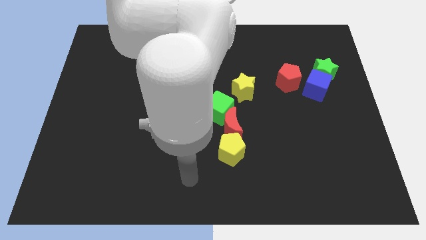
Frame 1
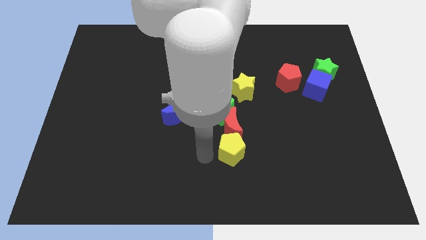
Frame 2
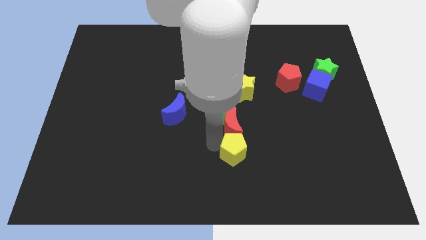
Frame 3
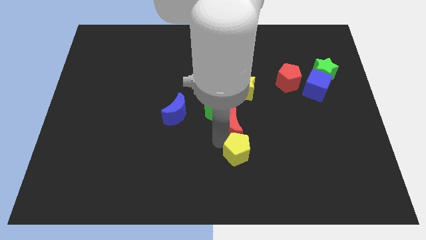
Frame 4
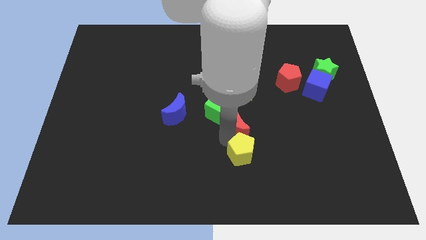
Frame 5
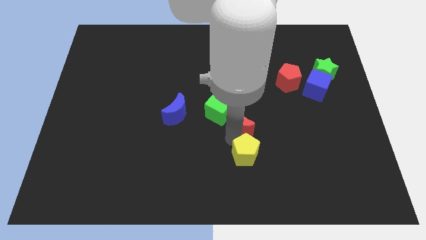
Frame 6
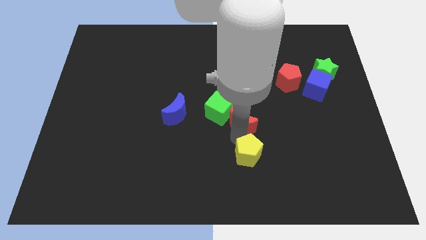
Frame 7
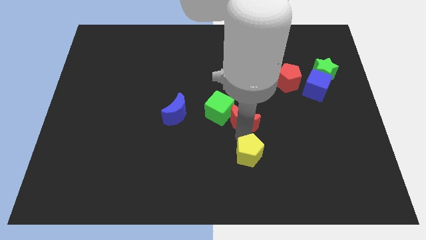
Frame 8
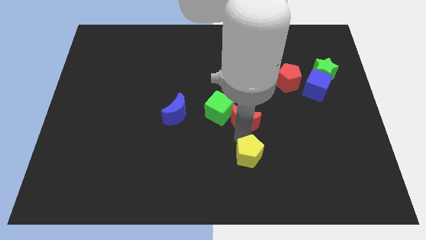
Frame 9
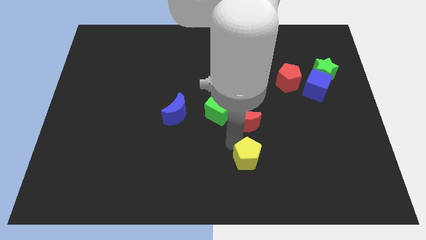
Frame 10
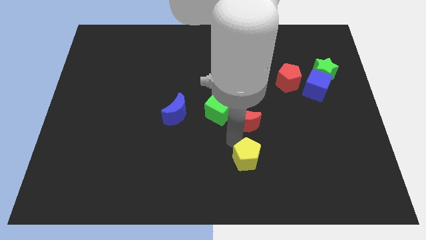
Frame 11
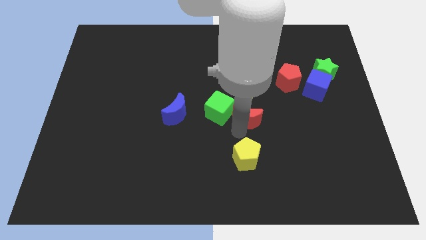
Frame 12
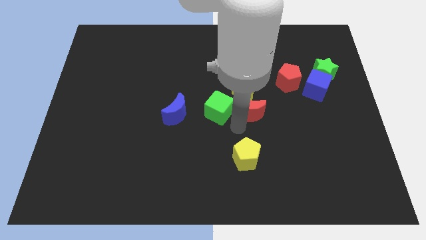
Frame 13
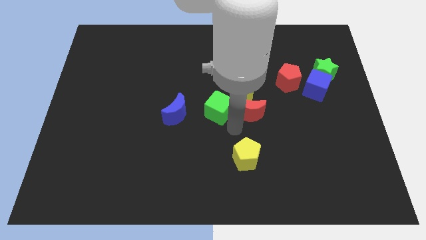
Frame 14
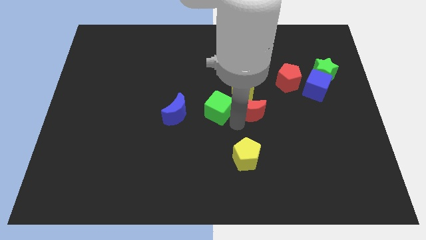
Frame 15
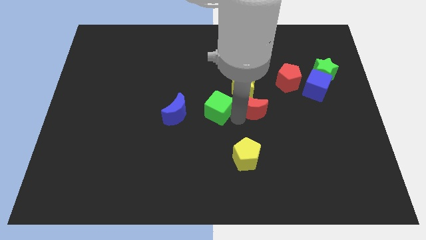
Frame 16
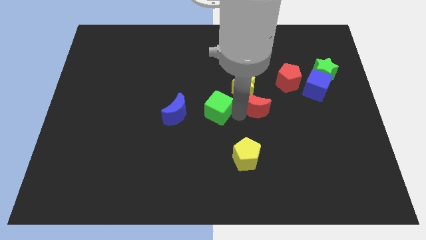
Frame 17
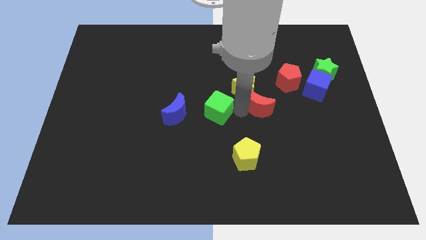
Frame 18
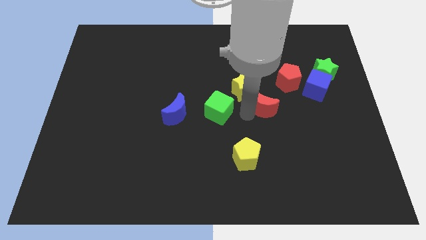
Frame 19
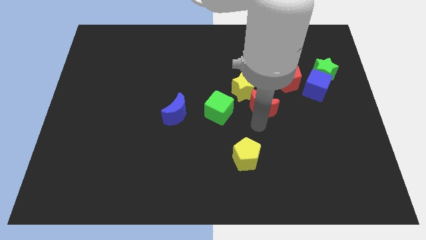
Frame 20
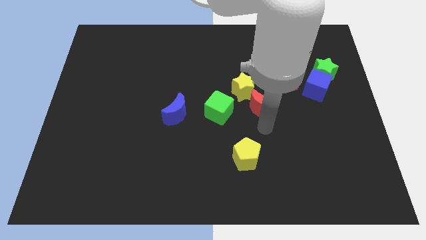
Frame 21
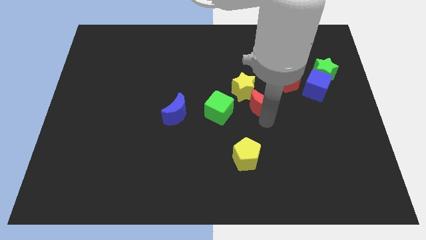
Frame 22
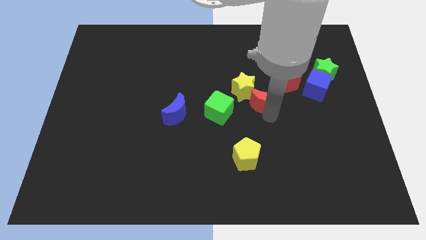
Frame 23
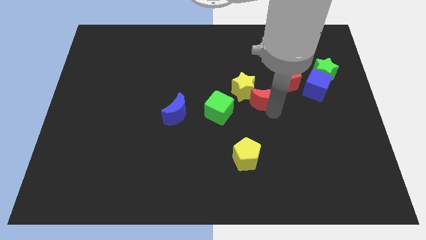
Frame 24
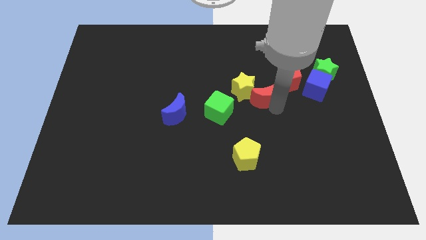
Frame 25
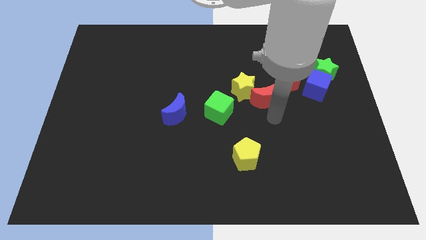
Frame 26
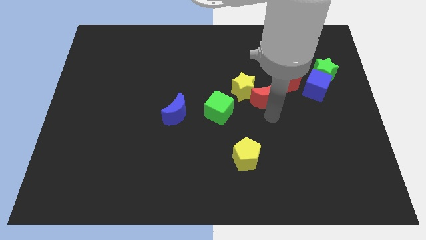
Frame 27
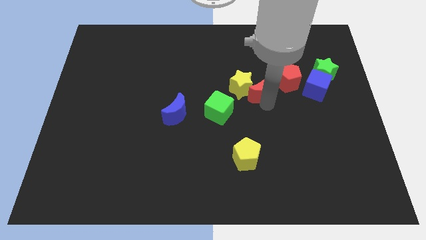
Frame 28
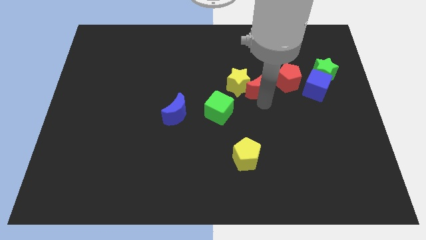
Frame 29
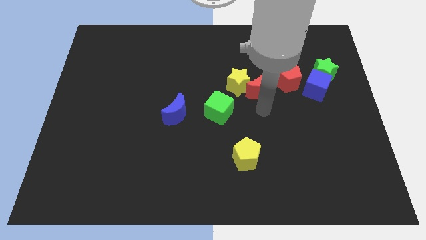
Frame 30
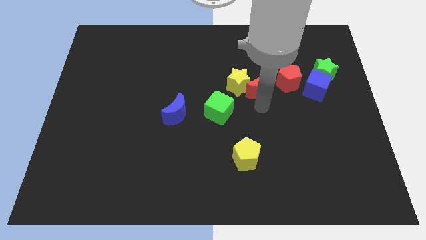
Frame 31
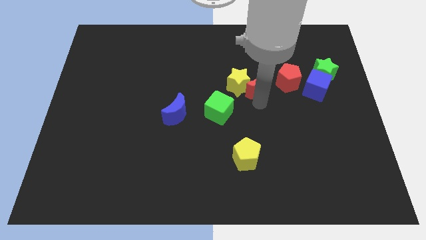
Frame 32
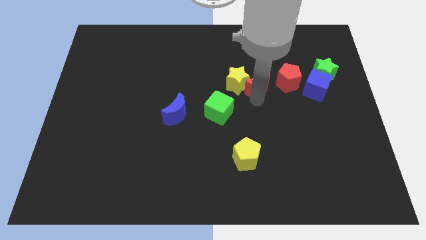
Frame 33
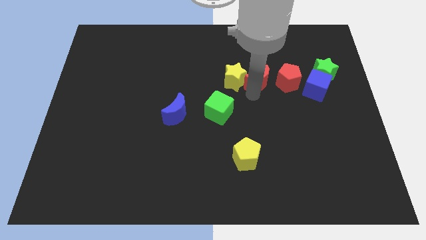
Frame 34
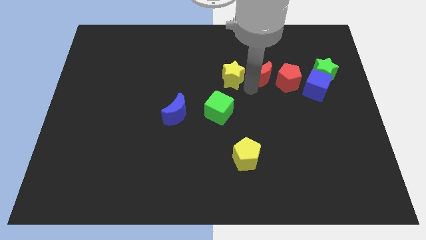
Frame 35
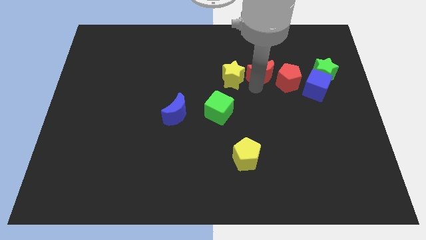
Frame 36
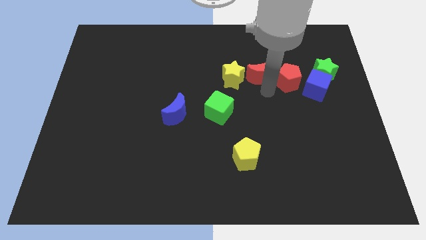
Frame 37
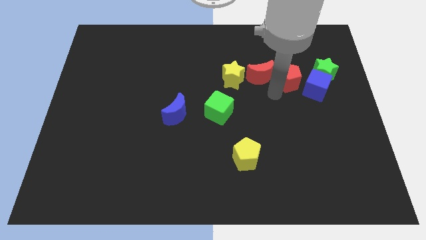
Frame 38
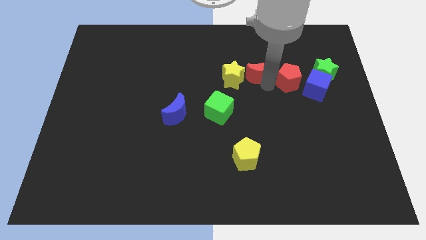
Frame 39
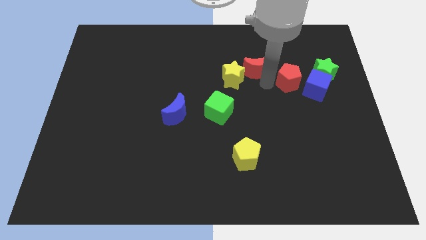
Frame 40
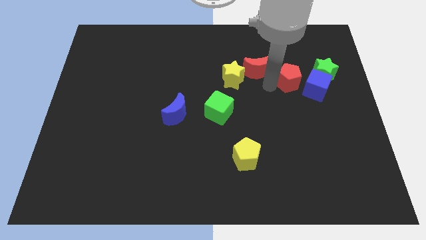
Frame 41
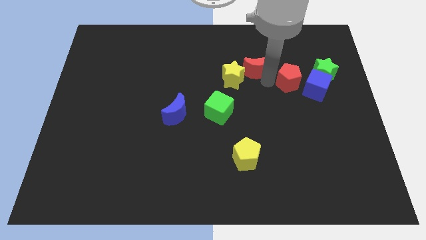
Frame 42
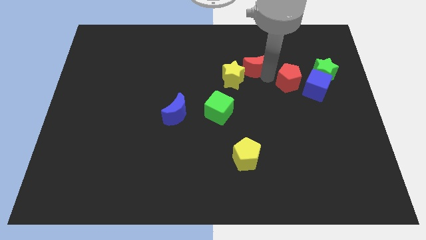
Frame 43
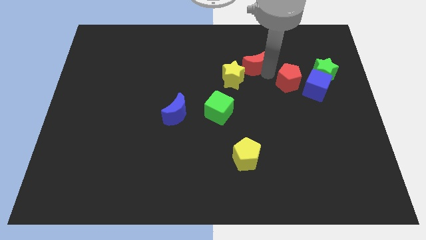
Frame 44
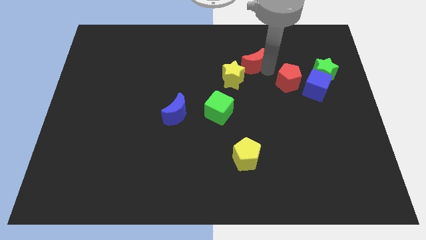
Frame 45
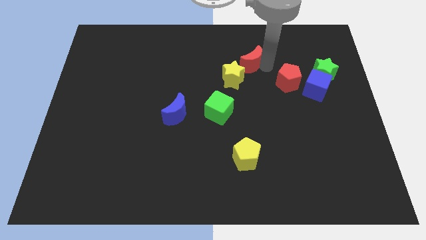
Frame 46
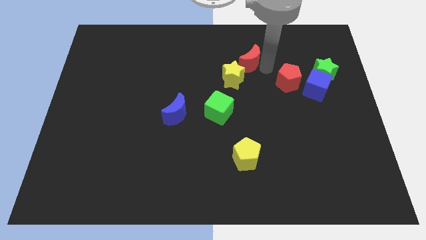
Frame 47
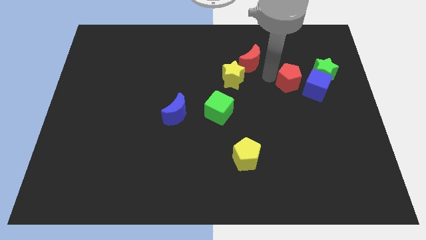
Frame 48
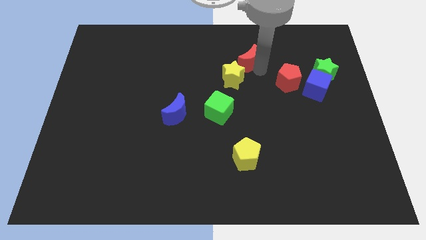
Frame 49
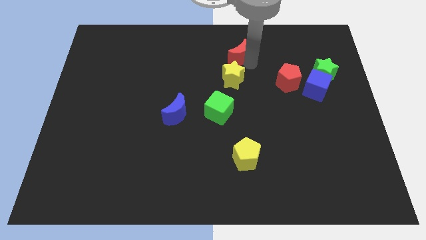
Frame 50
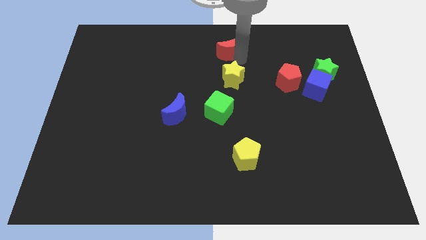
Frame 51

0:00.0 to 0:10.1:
slide the red moon to the towards your base

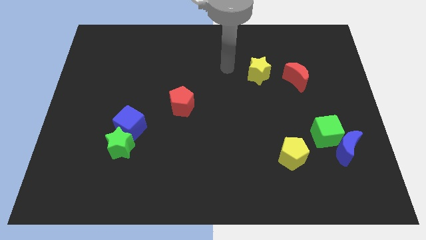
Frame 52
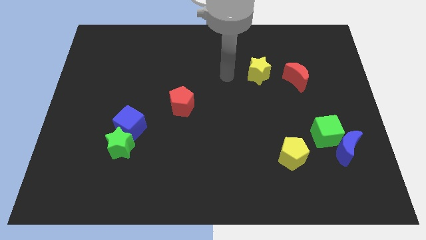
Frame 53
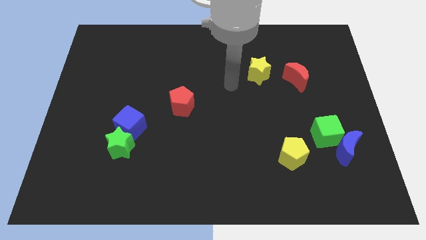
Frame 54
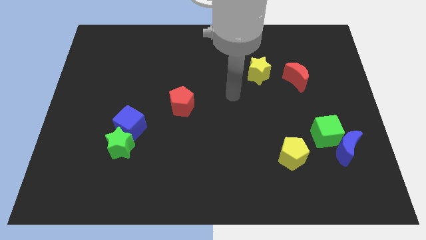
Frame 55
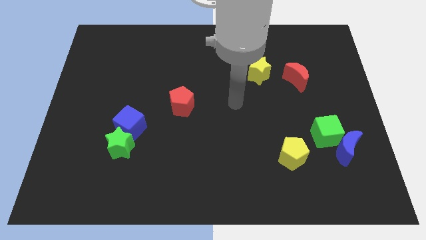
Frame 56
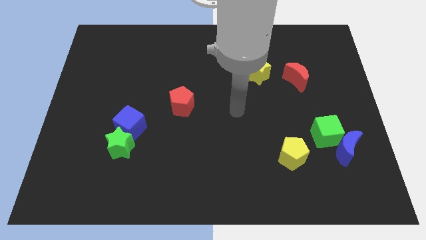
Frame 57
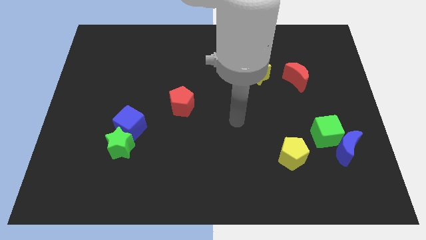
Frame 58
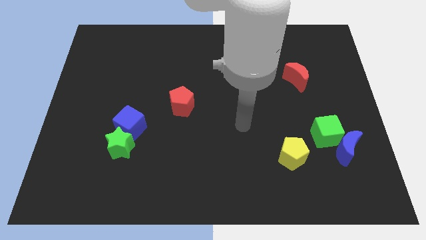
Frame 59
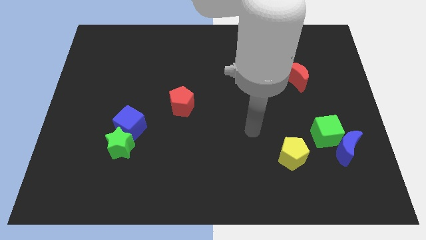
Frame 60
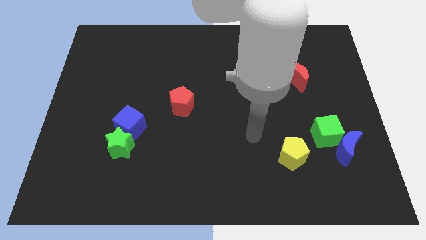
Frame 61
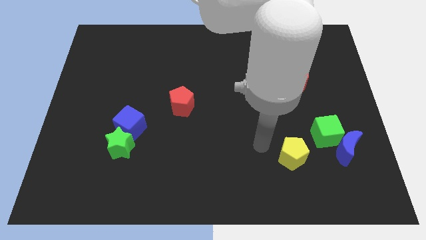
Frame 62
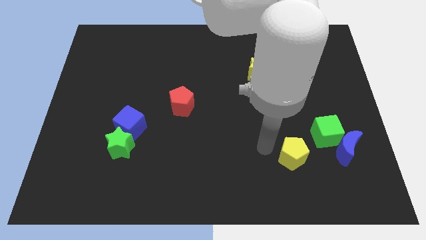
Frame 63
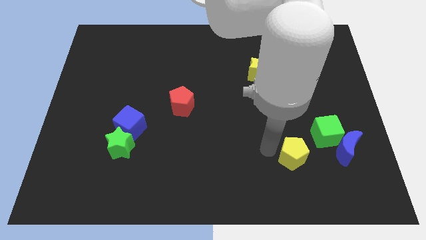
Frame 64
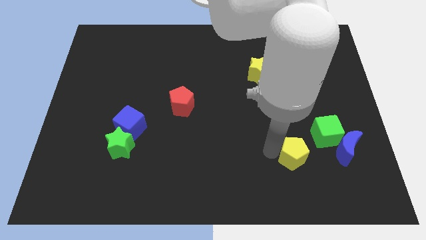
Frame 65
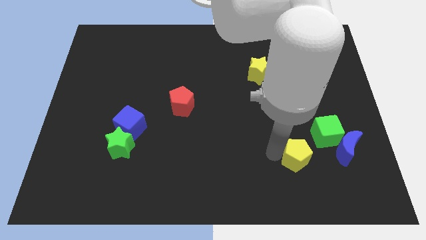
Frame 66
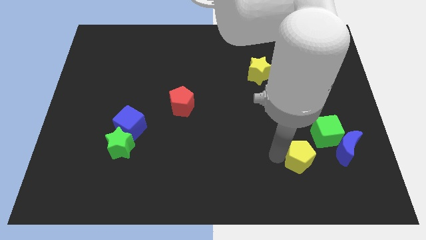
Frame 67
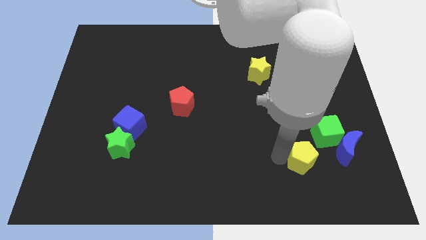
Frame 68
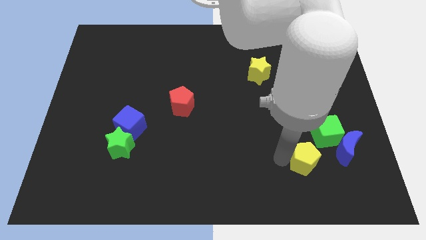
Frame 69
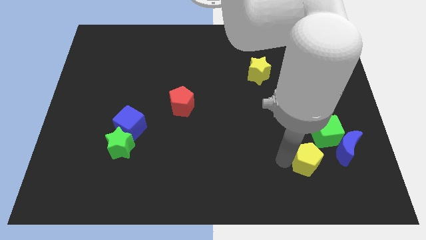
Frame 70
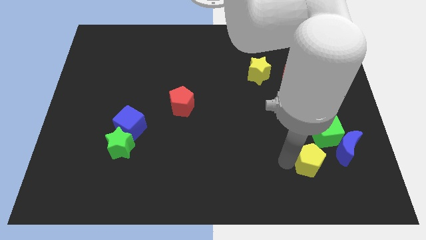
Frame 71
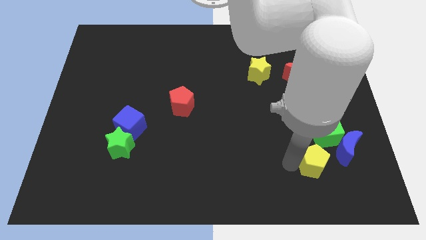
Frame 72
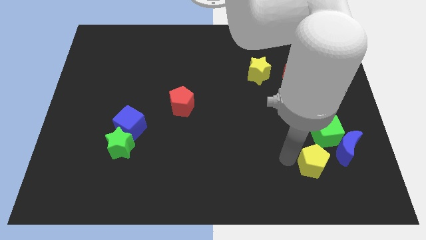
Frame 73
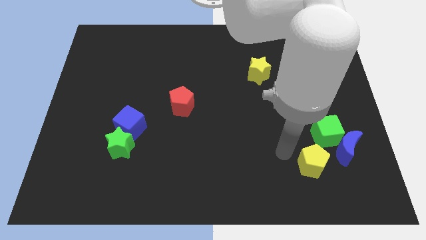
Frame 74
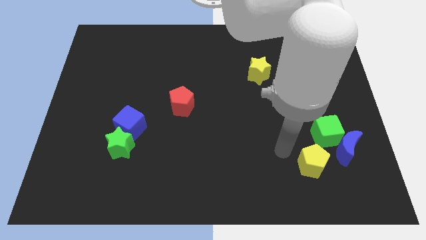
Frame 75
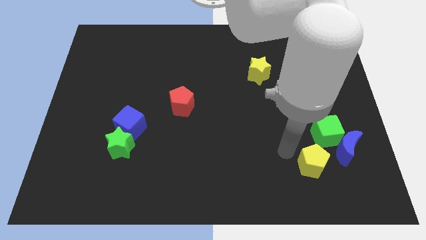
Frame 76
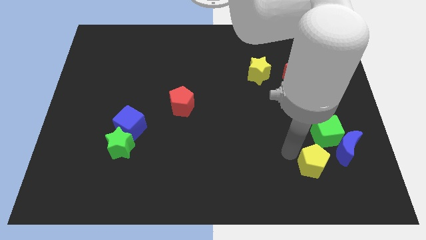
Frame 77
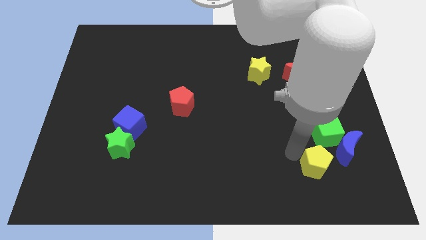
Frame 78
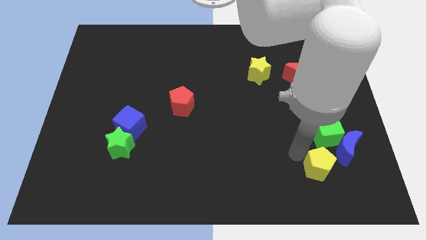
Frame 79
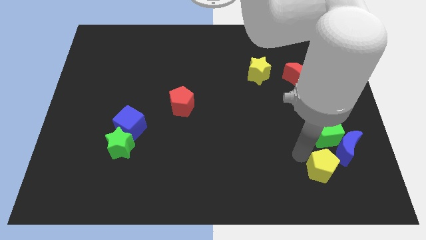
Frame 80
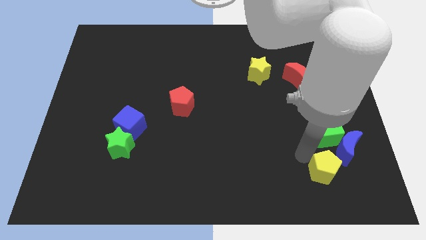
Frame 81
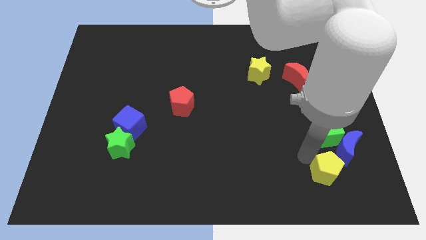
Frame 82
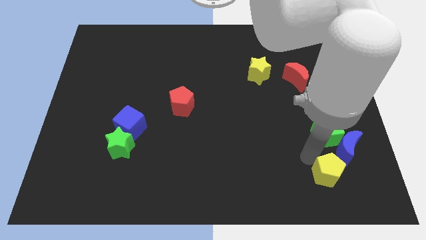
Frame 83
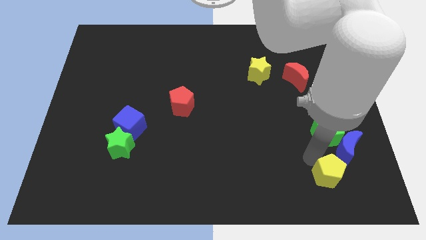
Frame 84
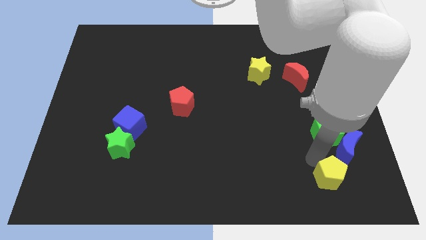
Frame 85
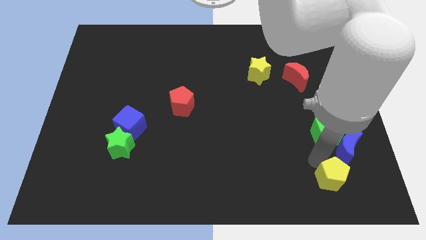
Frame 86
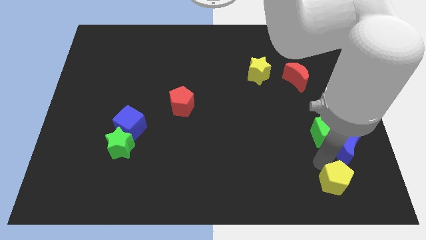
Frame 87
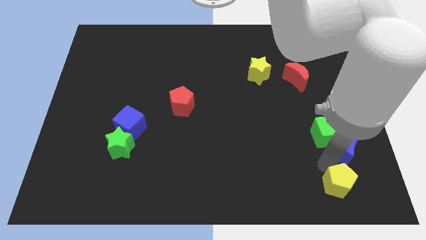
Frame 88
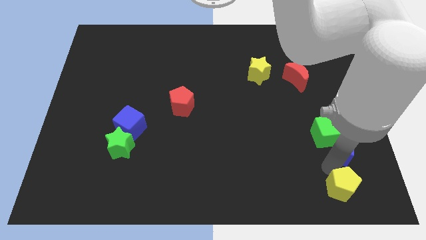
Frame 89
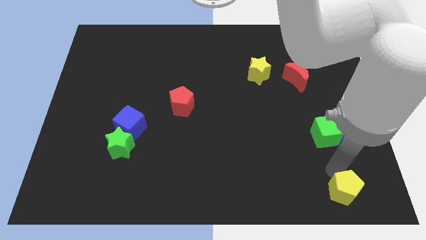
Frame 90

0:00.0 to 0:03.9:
move the yellow pentagon to the bottom right corner
